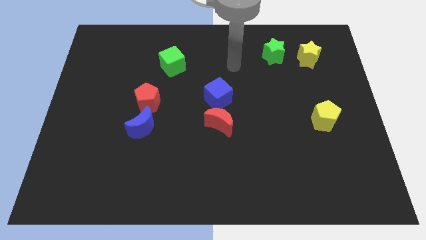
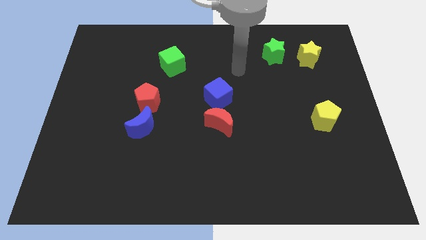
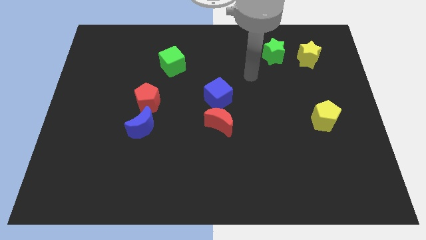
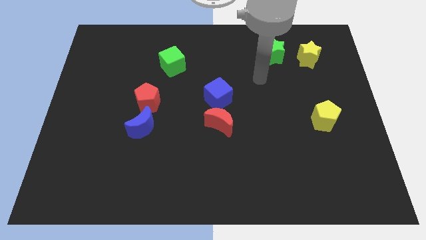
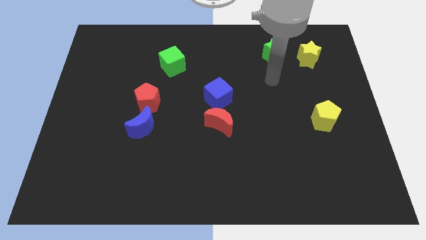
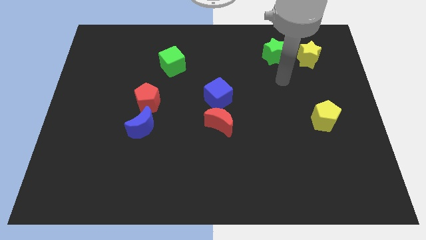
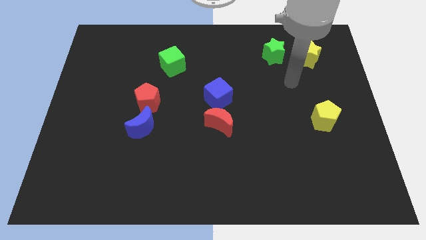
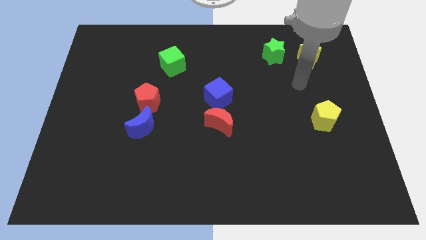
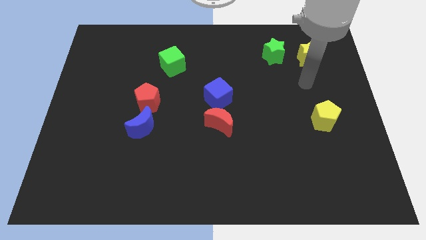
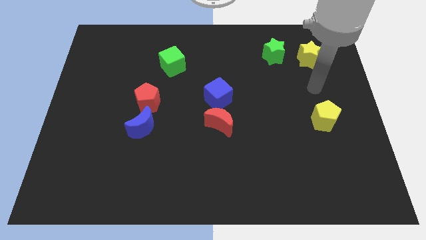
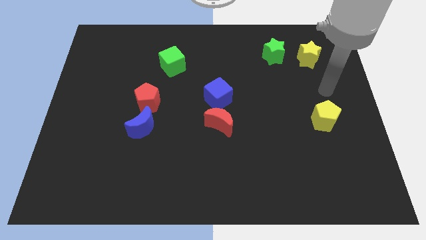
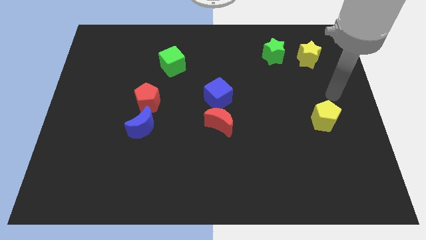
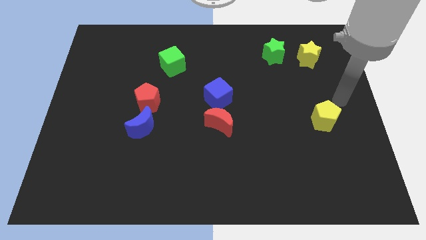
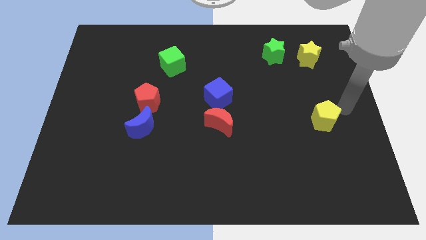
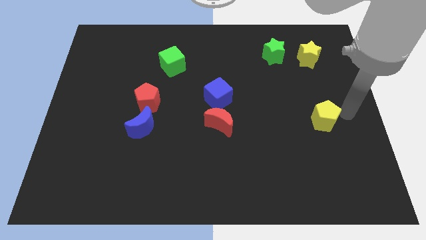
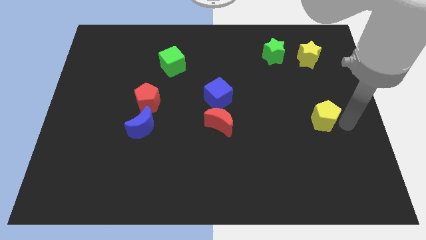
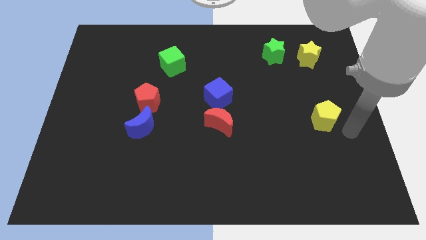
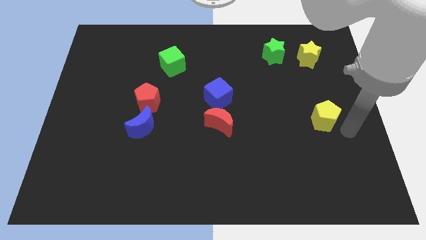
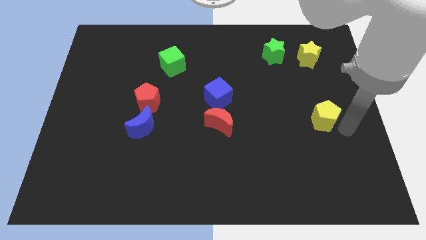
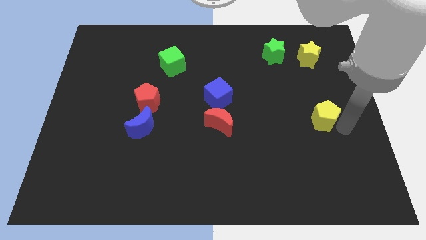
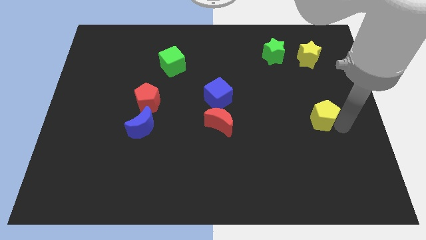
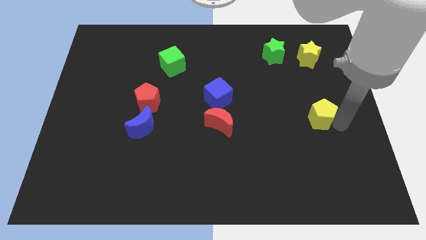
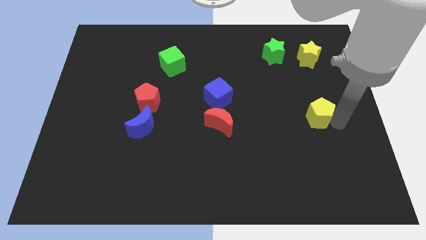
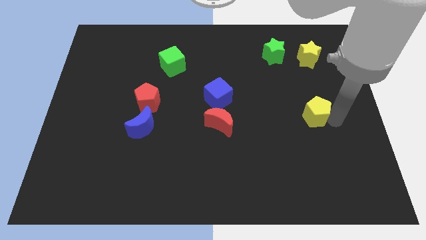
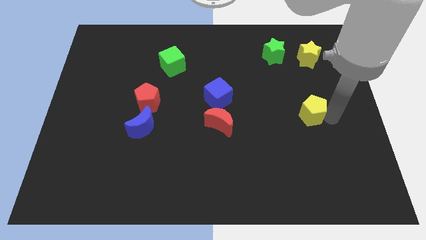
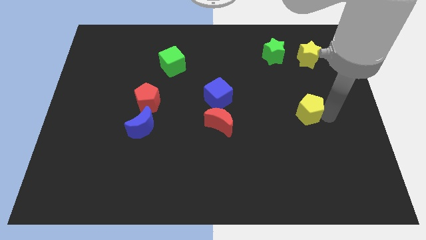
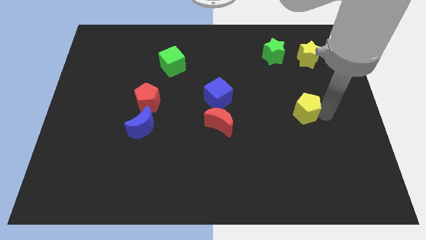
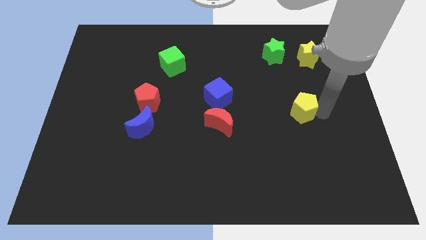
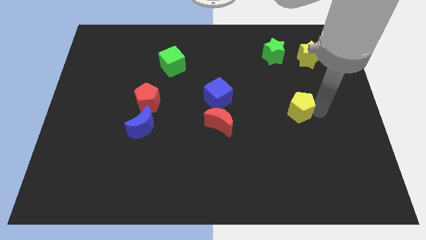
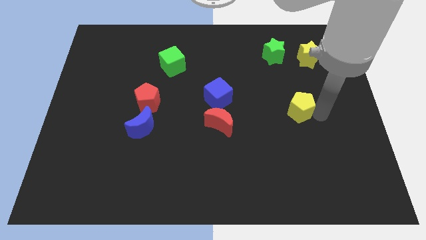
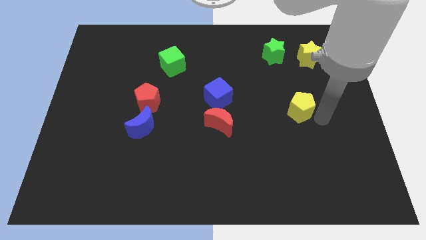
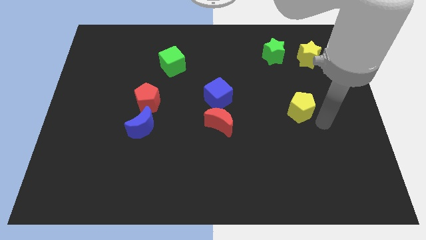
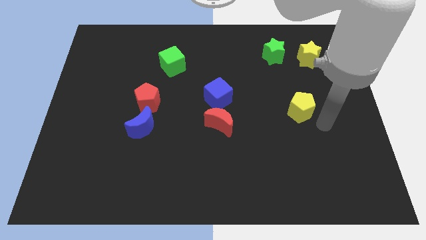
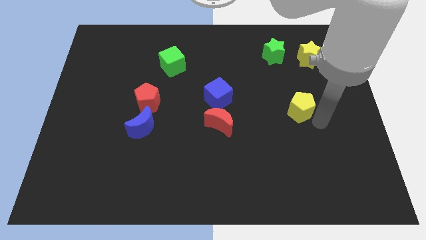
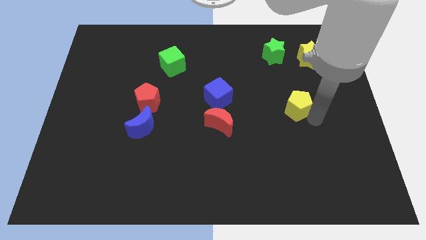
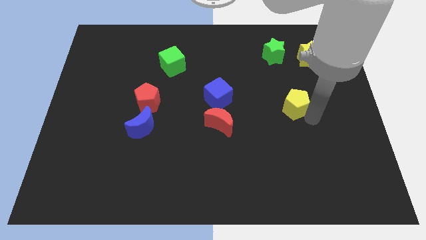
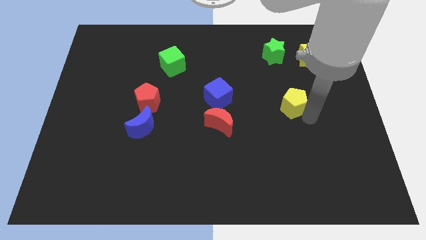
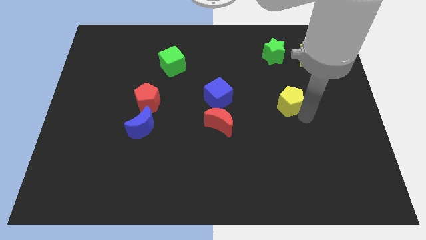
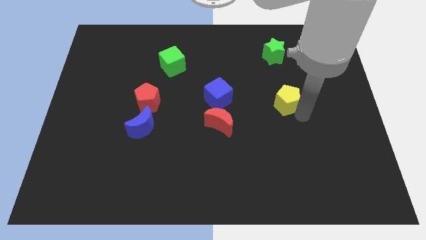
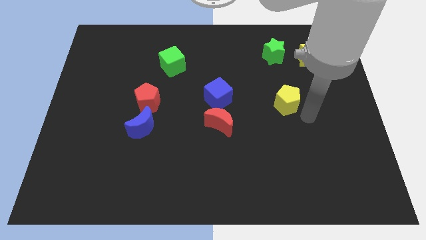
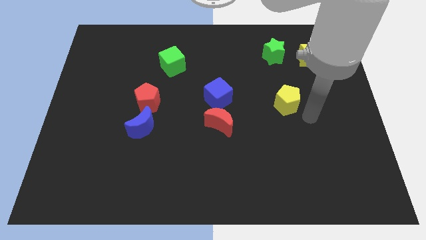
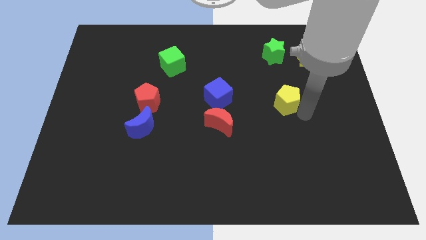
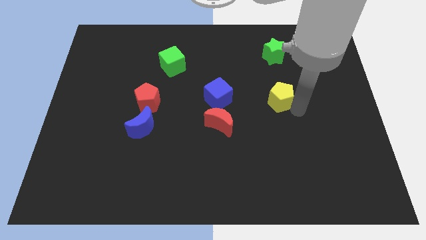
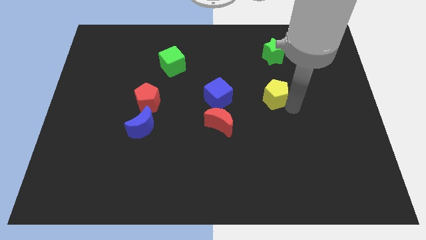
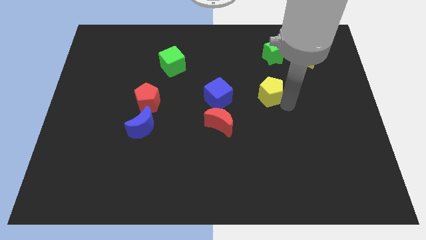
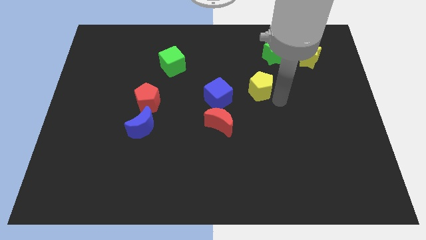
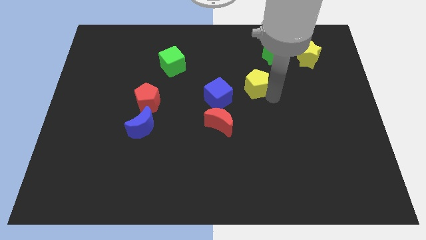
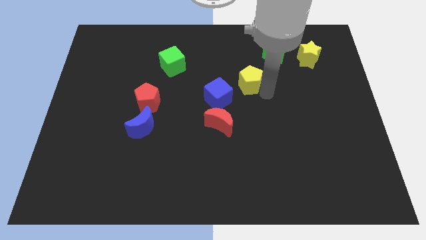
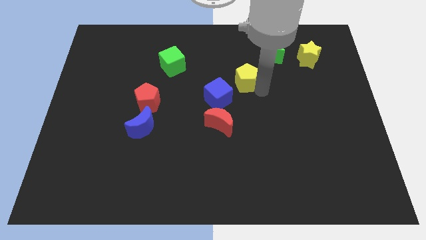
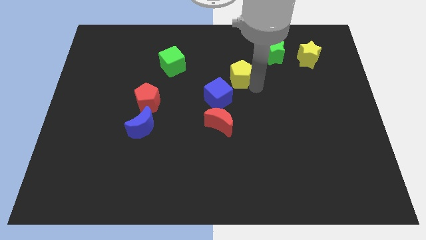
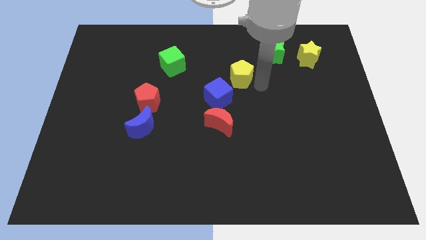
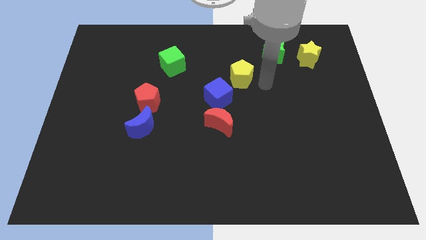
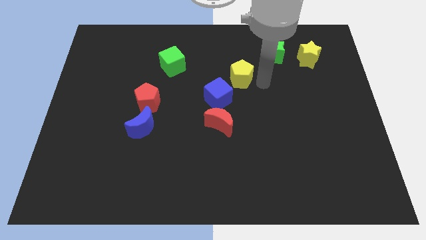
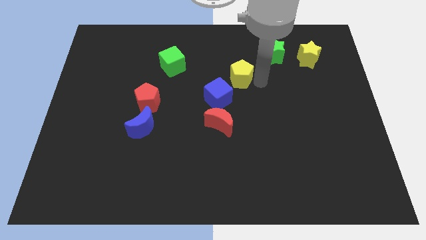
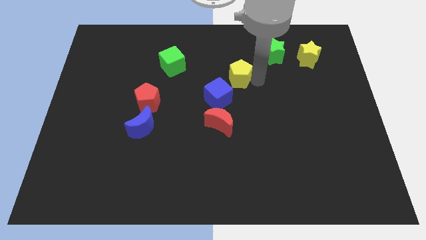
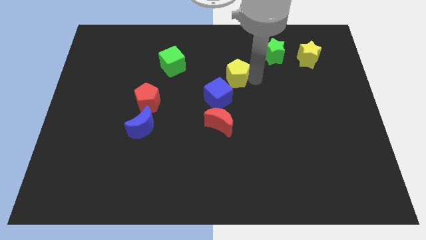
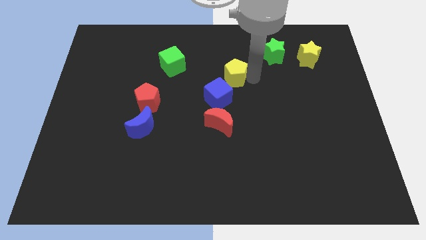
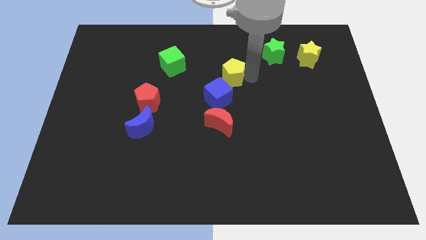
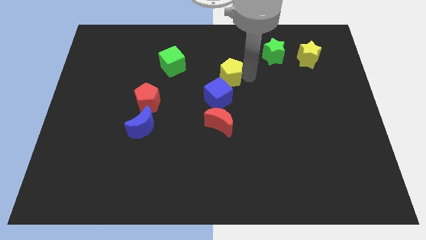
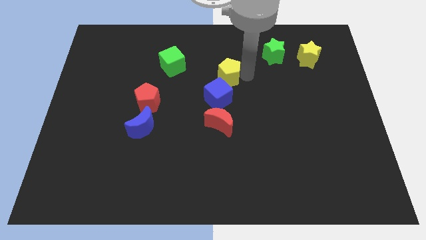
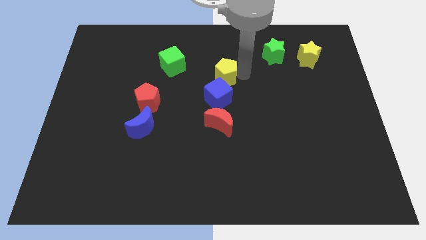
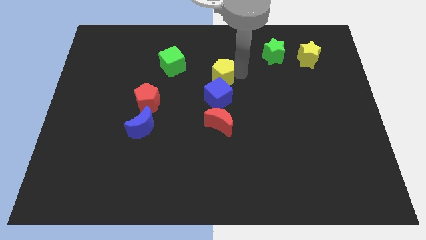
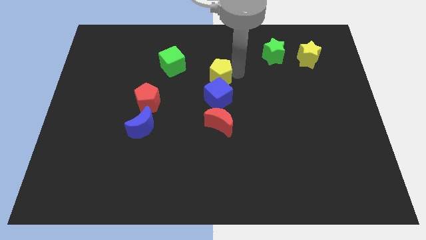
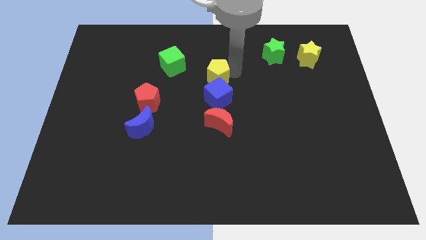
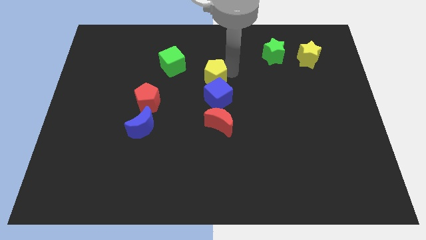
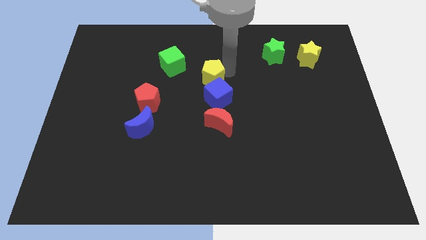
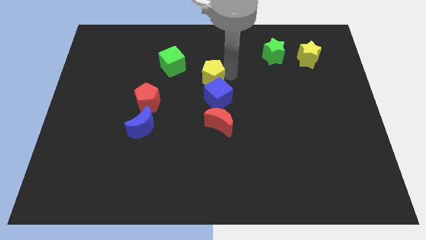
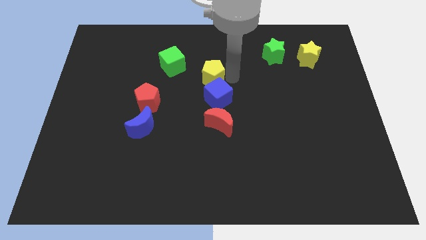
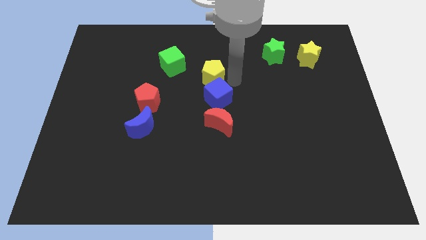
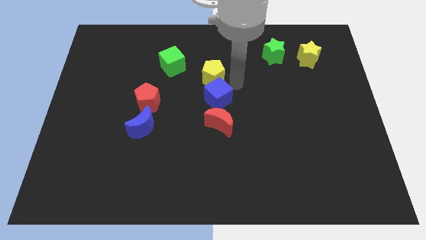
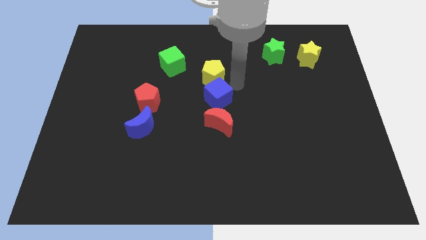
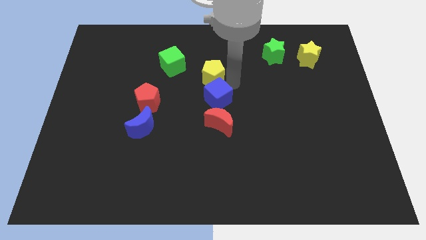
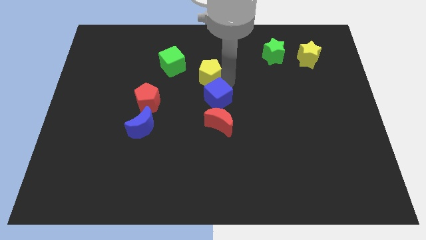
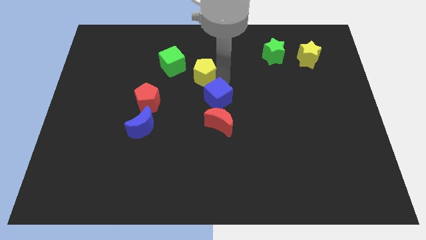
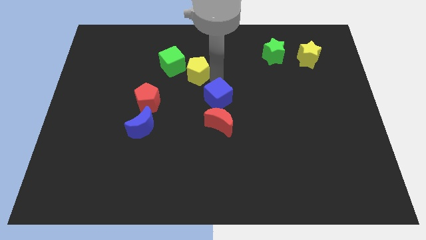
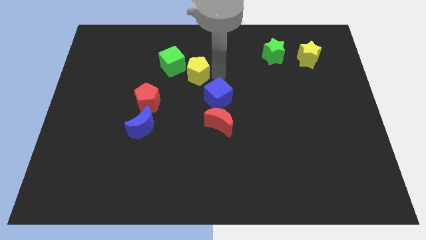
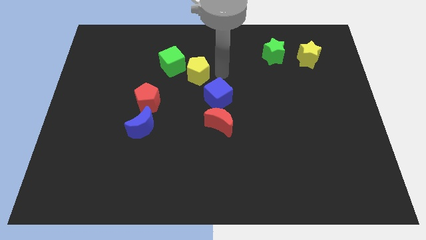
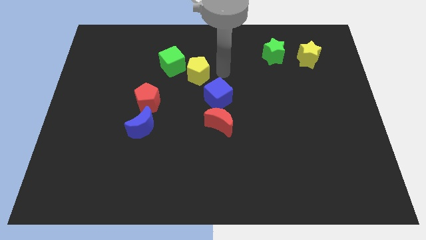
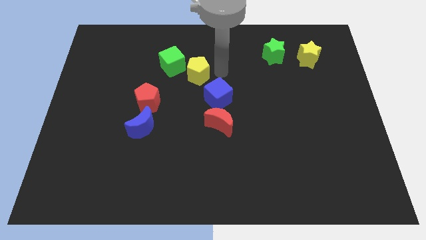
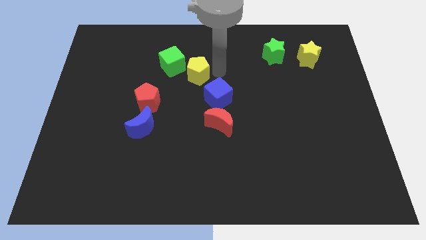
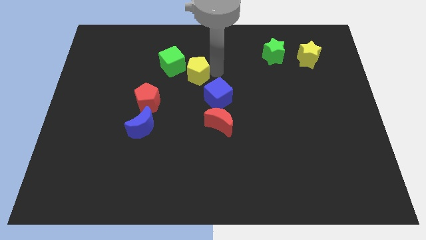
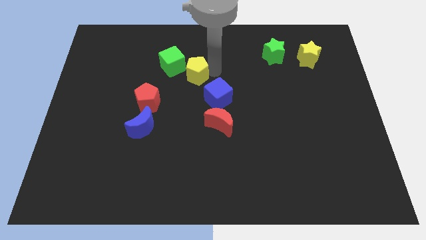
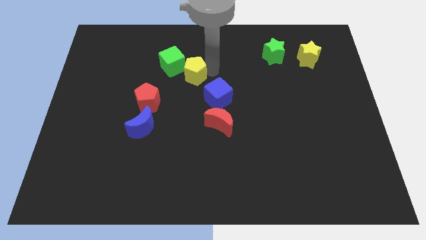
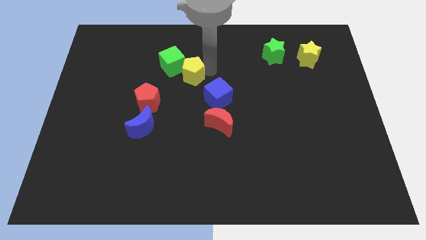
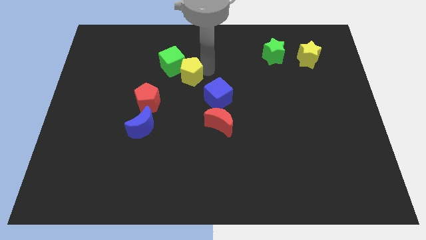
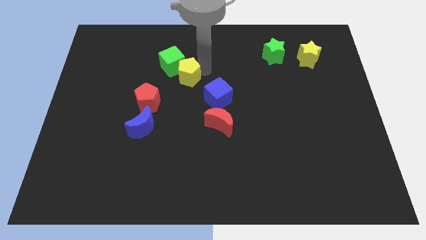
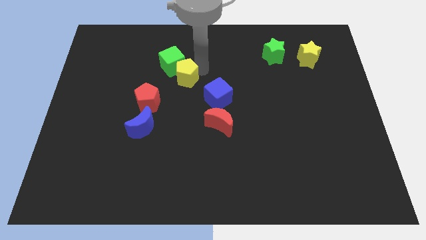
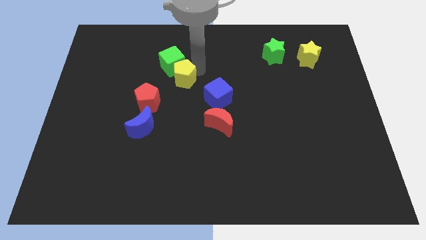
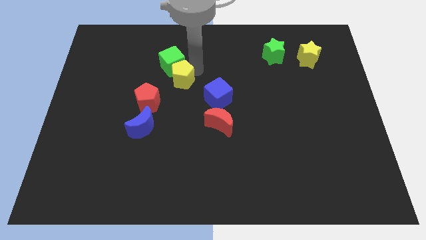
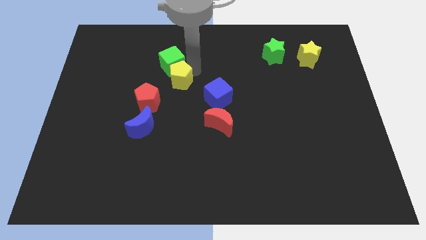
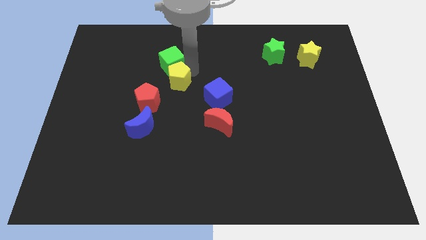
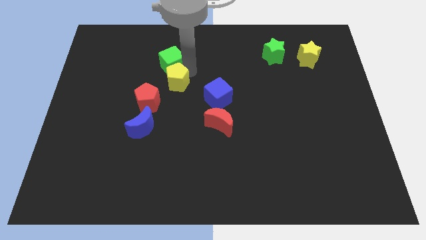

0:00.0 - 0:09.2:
move the yellow pentagon to the bottom left side of the green cube
